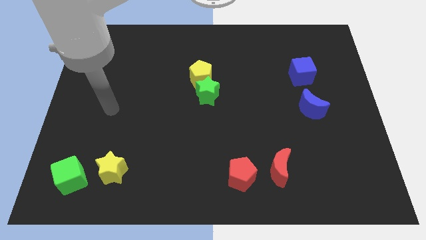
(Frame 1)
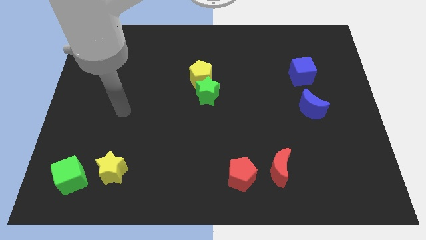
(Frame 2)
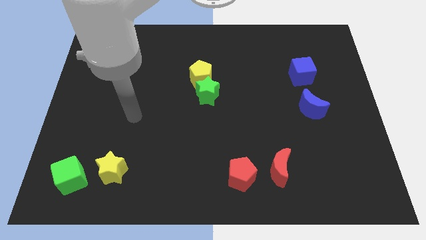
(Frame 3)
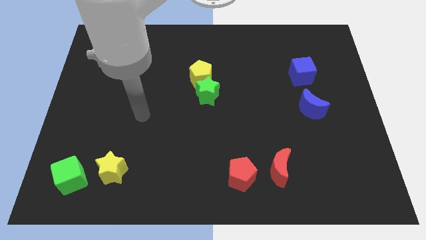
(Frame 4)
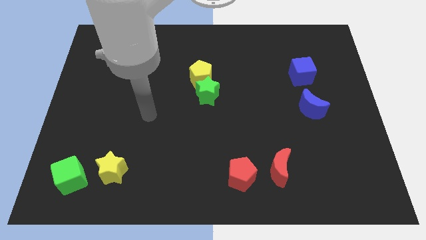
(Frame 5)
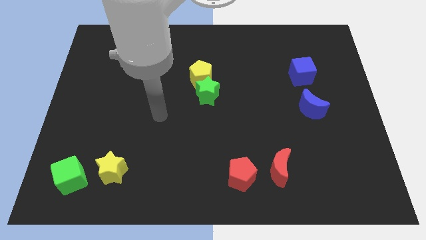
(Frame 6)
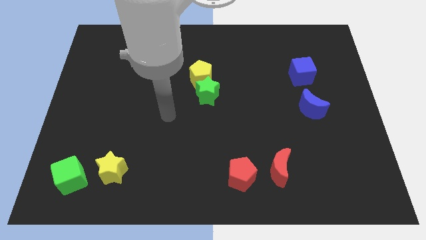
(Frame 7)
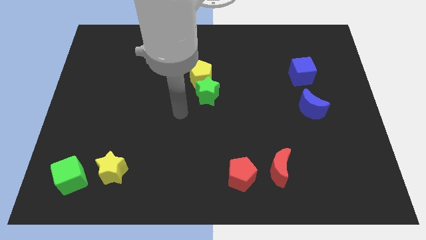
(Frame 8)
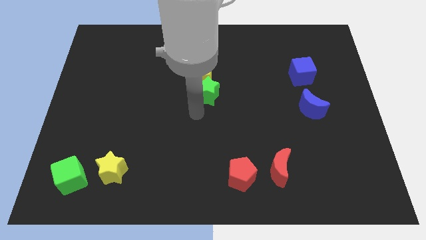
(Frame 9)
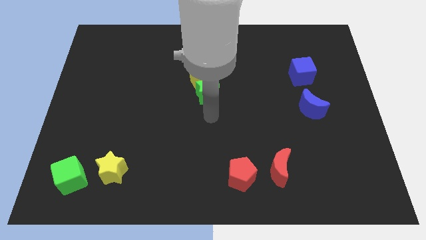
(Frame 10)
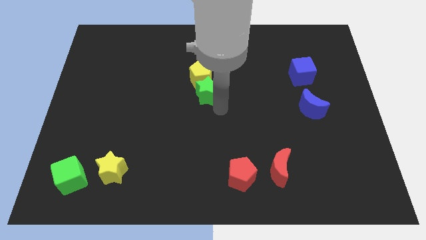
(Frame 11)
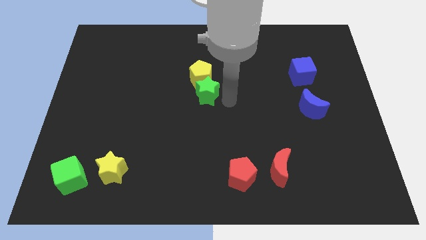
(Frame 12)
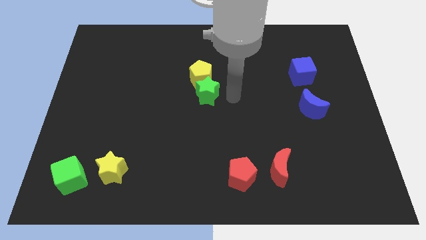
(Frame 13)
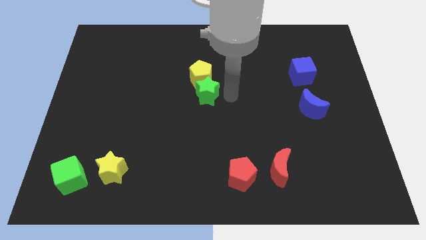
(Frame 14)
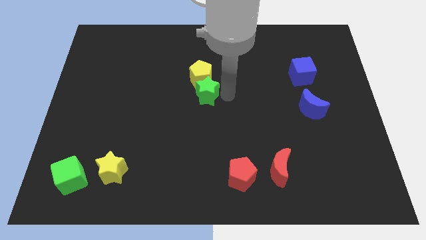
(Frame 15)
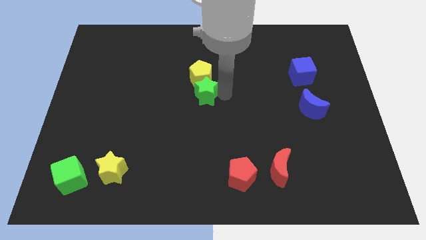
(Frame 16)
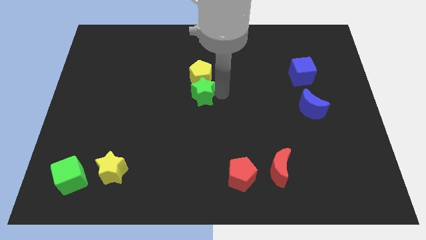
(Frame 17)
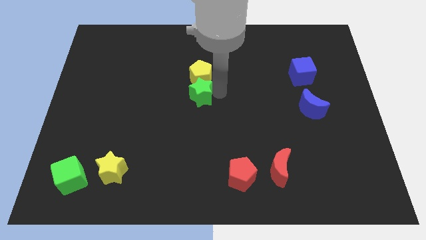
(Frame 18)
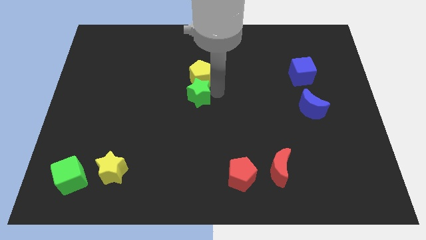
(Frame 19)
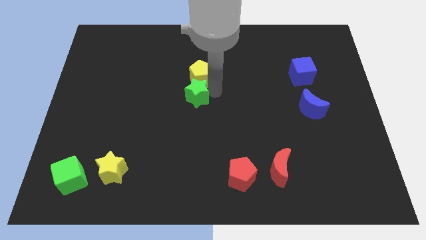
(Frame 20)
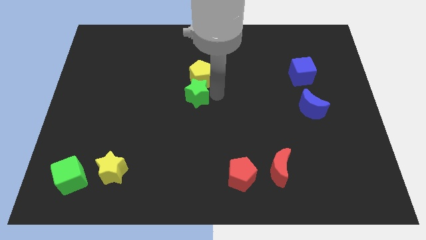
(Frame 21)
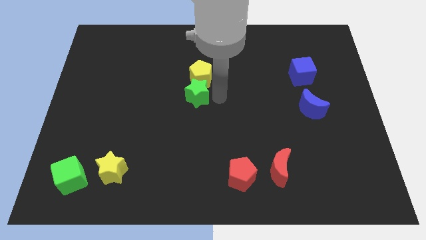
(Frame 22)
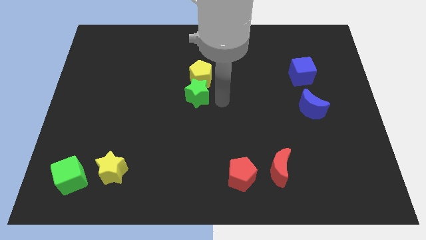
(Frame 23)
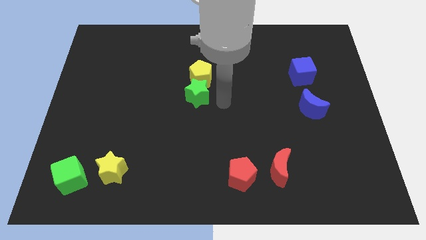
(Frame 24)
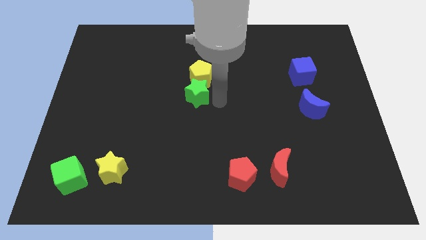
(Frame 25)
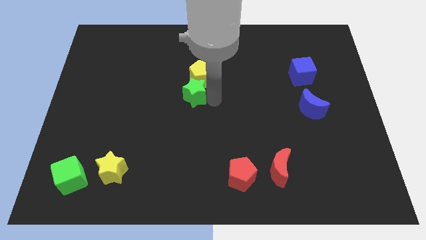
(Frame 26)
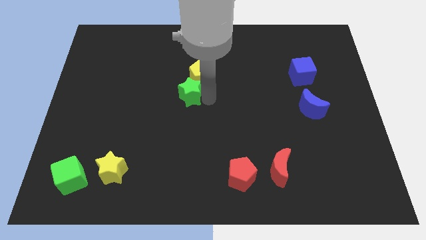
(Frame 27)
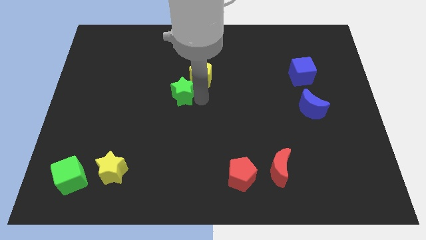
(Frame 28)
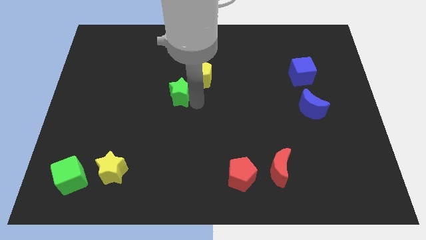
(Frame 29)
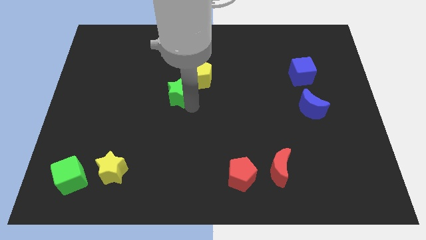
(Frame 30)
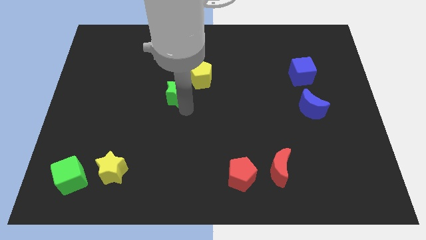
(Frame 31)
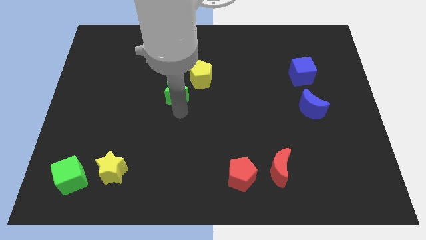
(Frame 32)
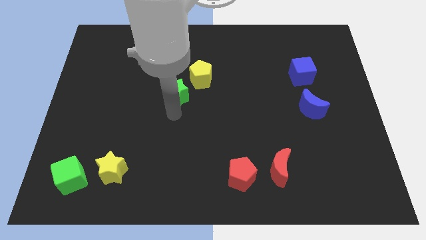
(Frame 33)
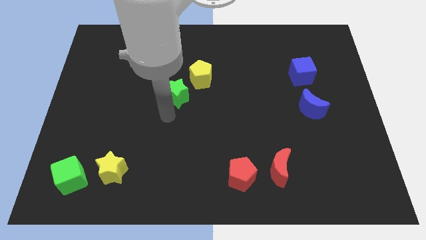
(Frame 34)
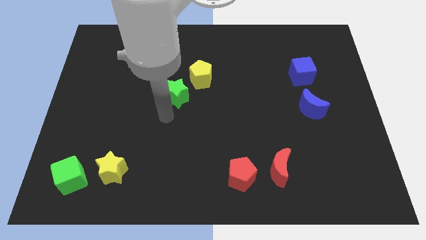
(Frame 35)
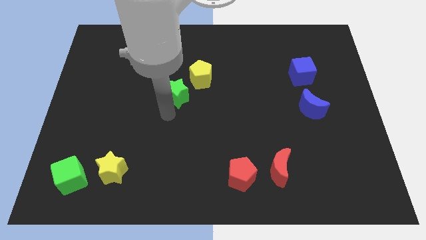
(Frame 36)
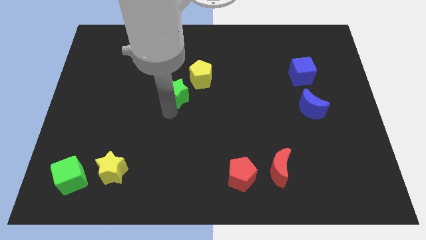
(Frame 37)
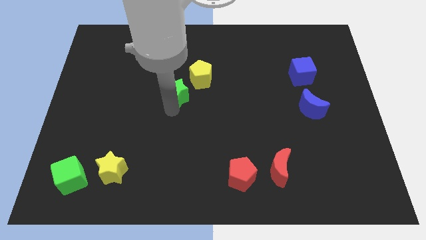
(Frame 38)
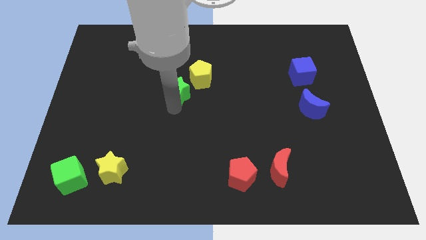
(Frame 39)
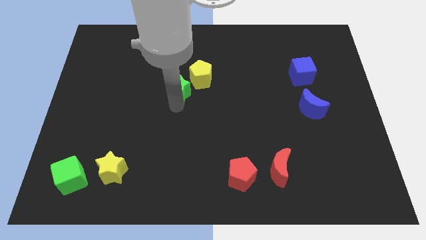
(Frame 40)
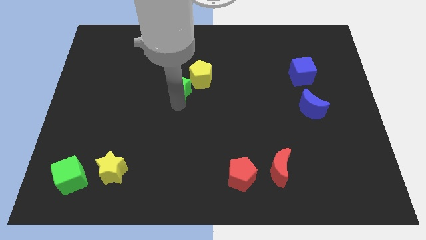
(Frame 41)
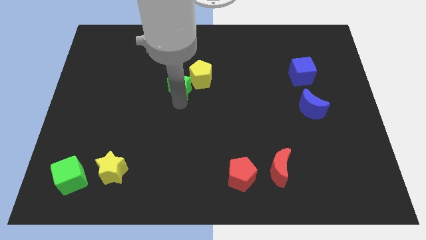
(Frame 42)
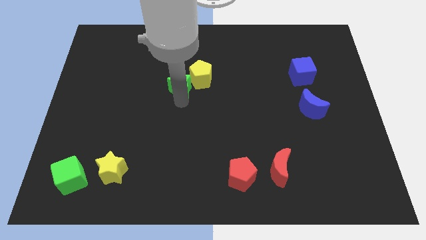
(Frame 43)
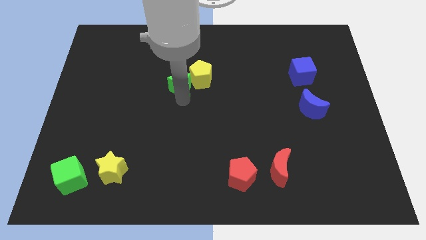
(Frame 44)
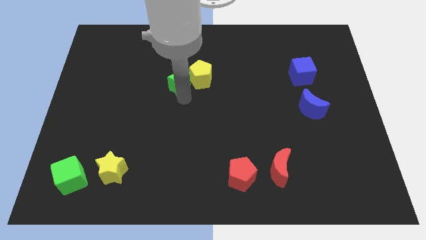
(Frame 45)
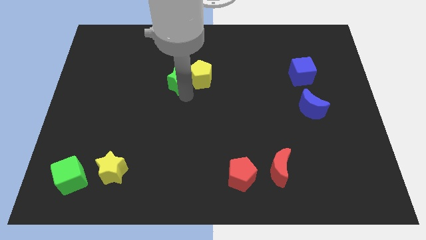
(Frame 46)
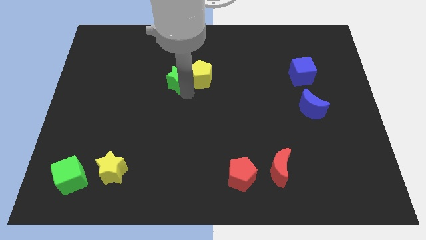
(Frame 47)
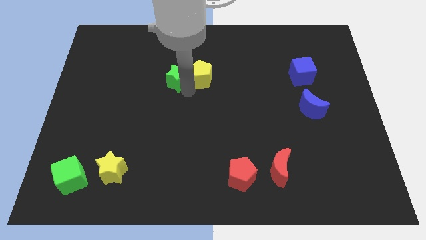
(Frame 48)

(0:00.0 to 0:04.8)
slide the green star diagonally up and to the left of the yellow pentagon

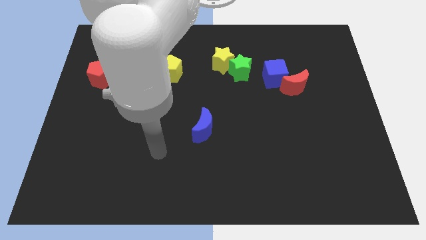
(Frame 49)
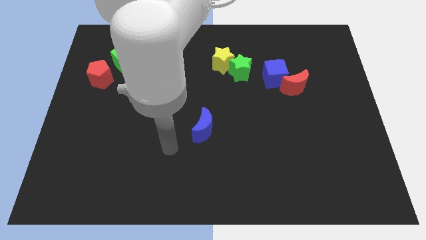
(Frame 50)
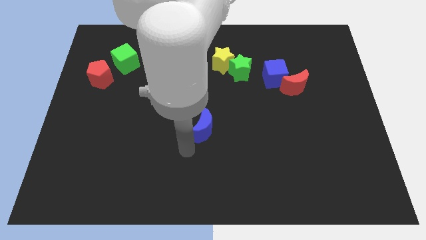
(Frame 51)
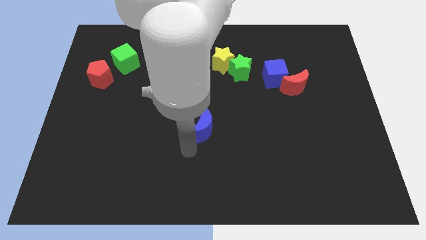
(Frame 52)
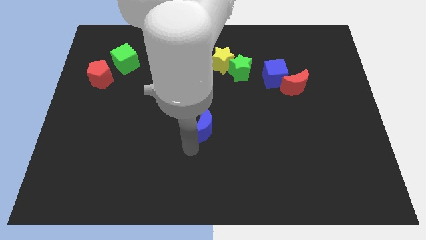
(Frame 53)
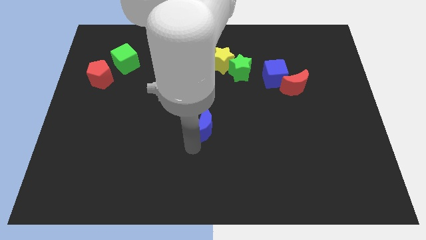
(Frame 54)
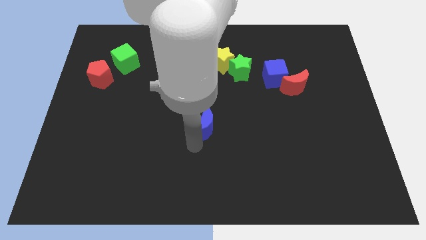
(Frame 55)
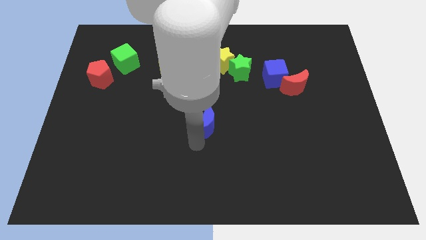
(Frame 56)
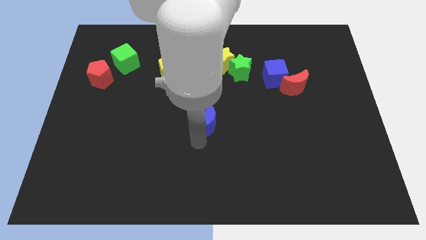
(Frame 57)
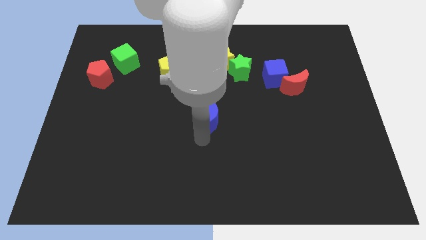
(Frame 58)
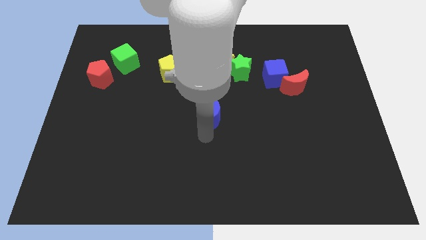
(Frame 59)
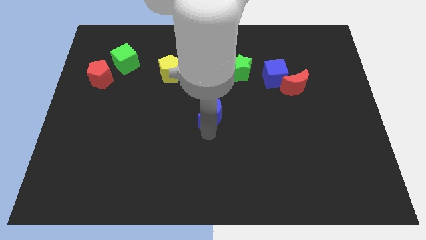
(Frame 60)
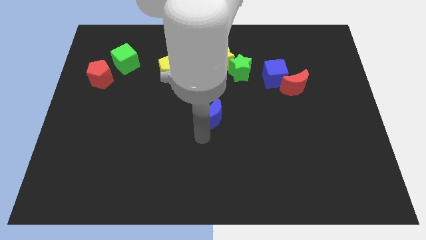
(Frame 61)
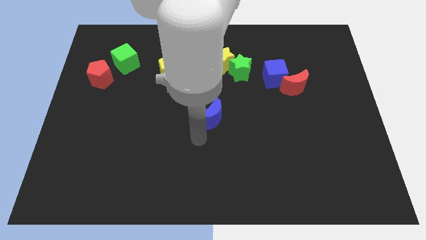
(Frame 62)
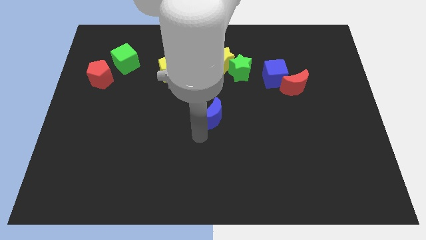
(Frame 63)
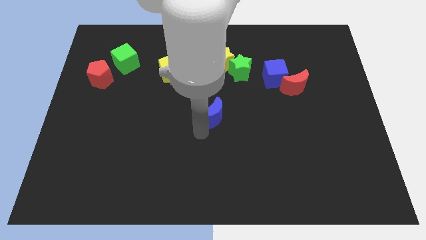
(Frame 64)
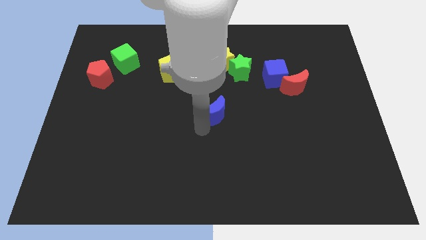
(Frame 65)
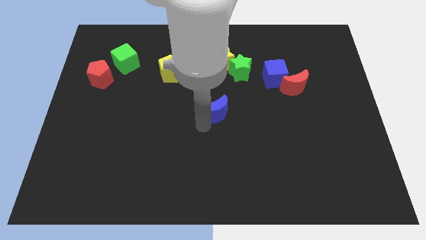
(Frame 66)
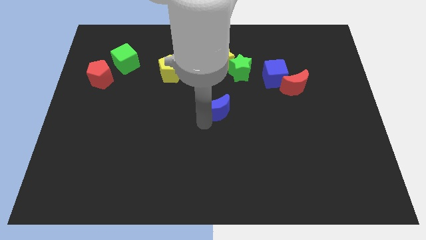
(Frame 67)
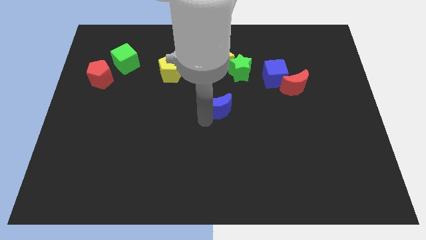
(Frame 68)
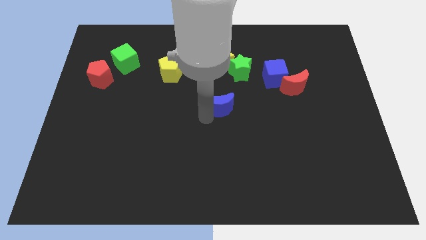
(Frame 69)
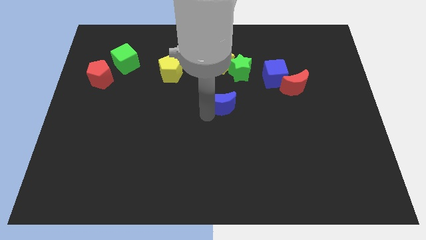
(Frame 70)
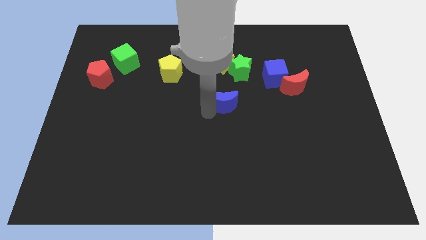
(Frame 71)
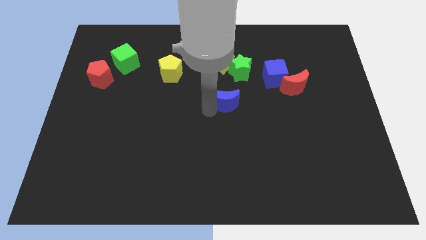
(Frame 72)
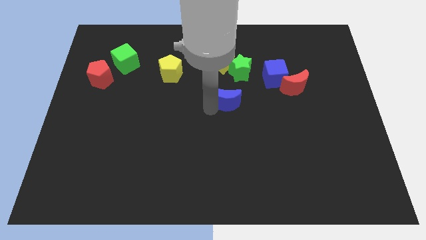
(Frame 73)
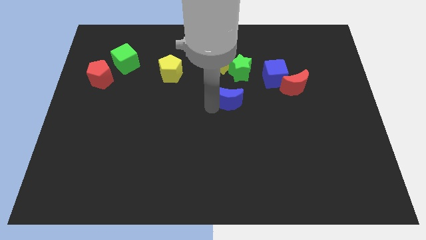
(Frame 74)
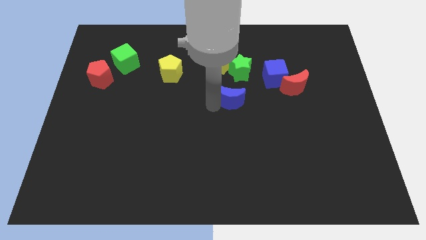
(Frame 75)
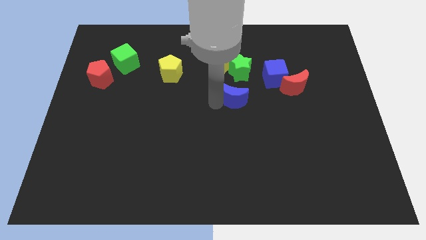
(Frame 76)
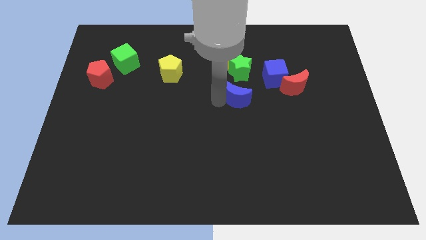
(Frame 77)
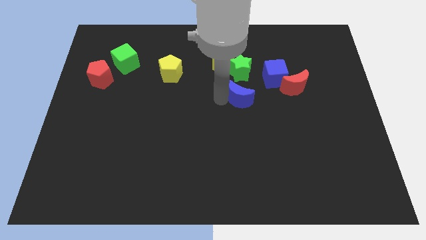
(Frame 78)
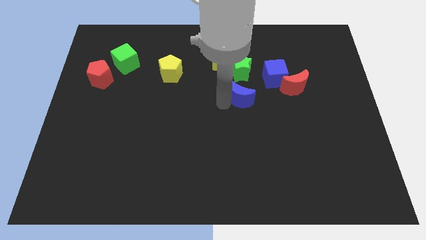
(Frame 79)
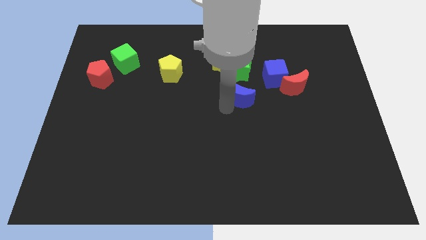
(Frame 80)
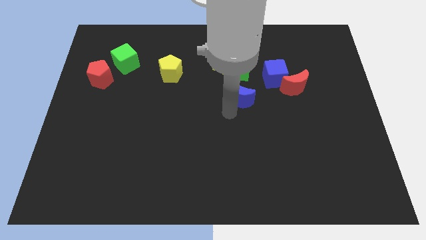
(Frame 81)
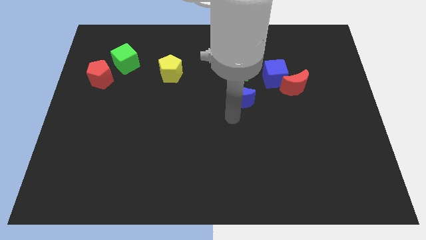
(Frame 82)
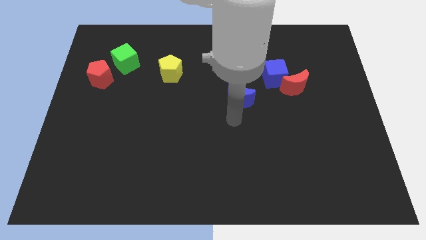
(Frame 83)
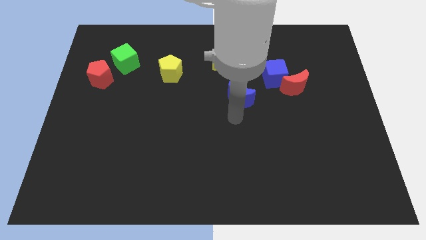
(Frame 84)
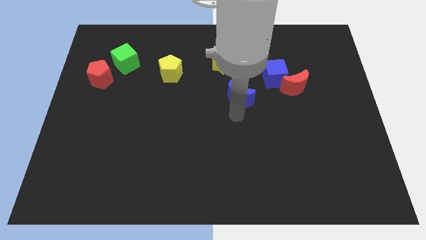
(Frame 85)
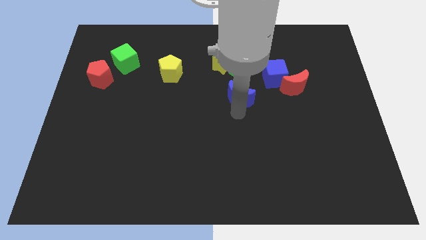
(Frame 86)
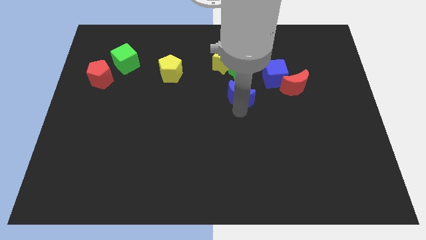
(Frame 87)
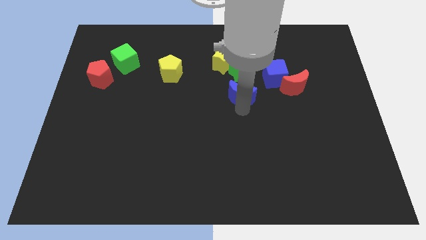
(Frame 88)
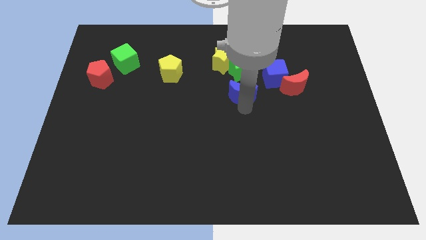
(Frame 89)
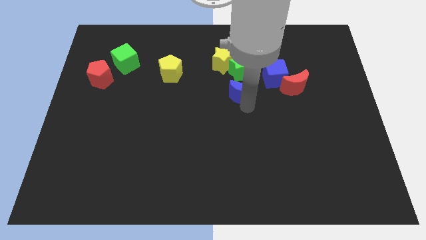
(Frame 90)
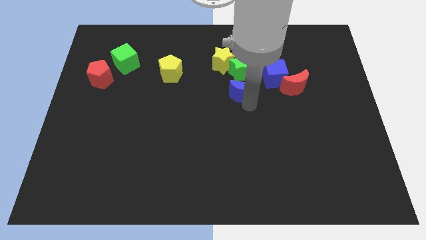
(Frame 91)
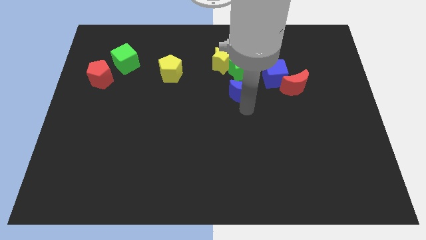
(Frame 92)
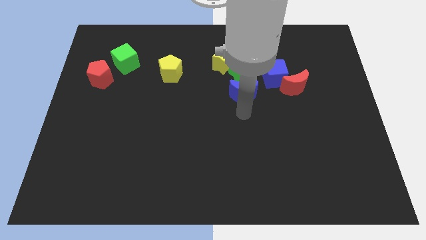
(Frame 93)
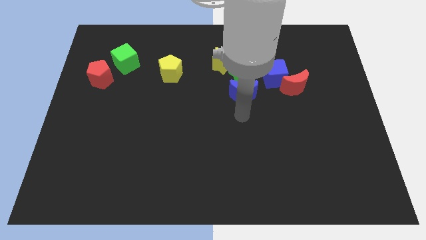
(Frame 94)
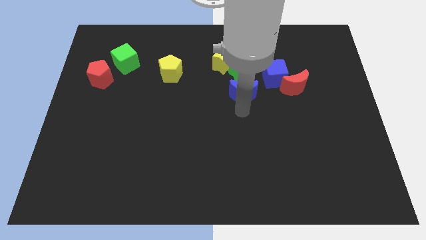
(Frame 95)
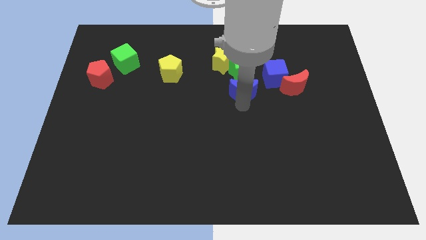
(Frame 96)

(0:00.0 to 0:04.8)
move the blue moon diagonally down and to the right of the yellow star
